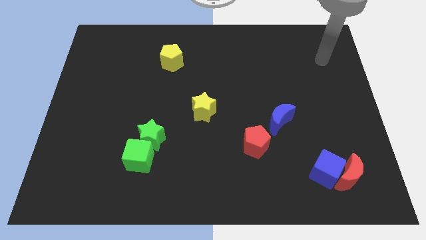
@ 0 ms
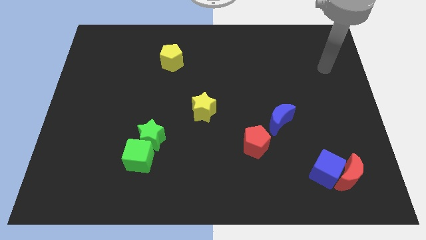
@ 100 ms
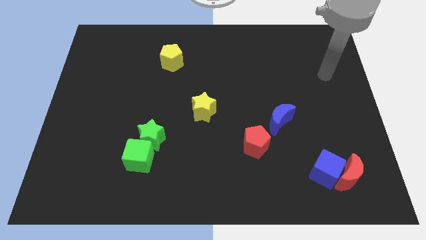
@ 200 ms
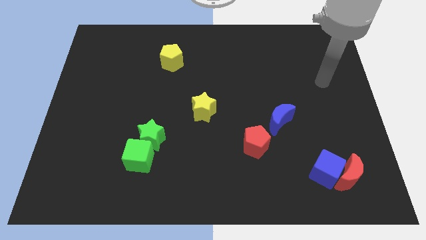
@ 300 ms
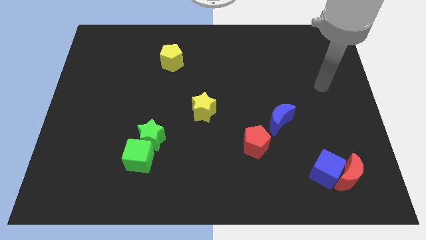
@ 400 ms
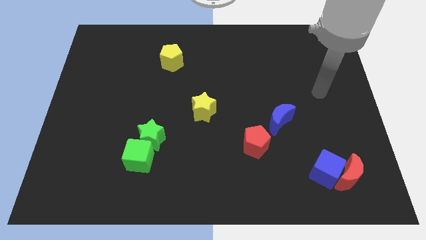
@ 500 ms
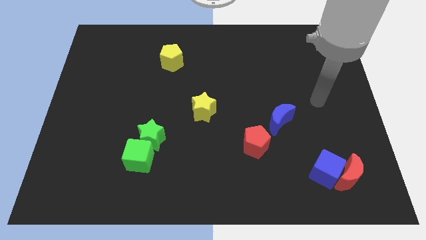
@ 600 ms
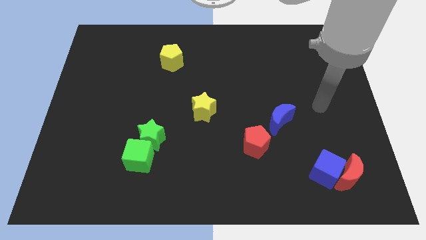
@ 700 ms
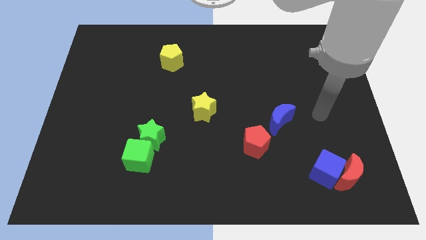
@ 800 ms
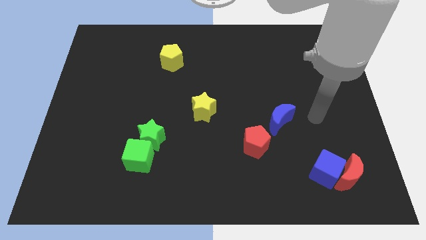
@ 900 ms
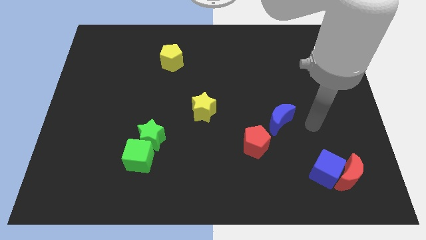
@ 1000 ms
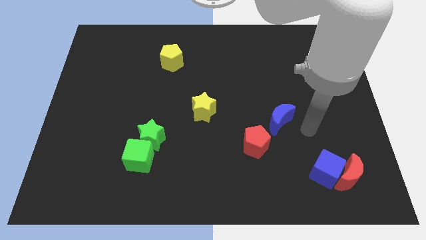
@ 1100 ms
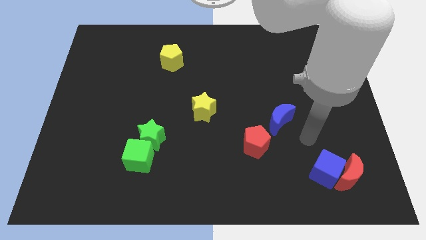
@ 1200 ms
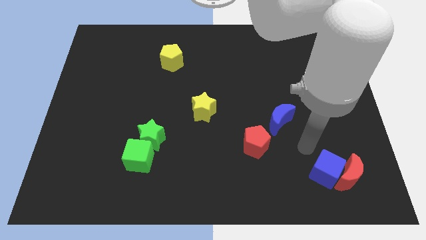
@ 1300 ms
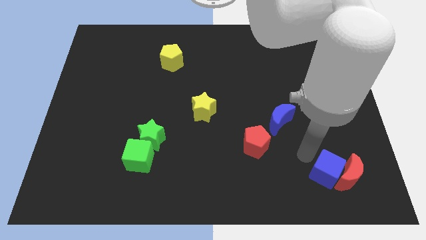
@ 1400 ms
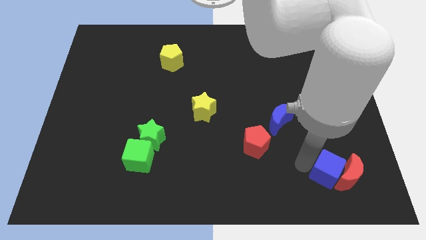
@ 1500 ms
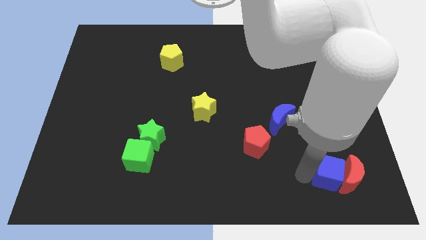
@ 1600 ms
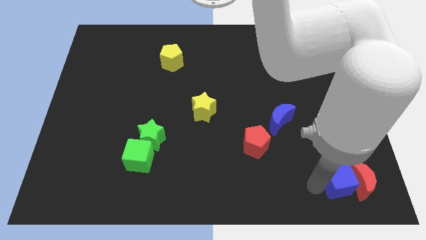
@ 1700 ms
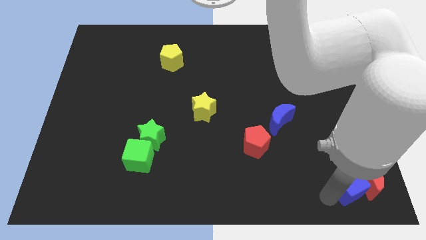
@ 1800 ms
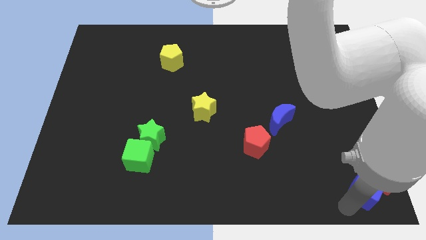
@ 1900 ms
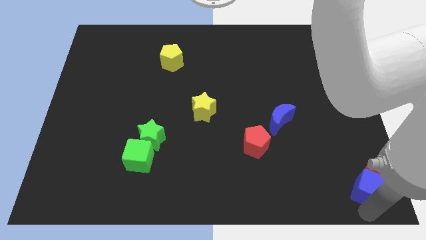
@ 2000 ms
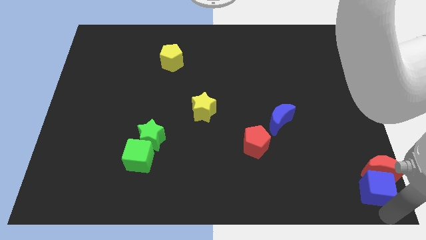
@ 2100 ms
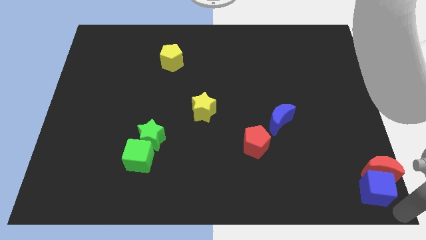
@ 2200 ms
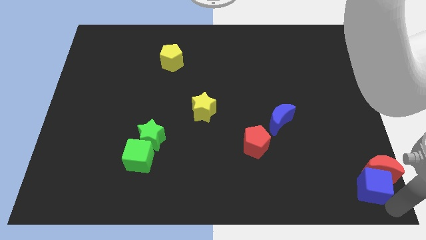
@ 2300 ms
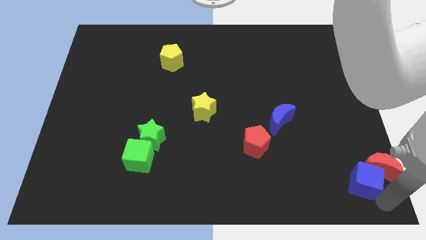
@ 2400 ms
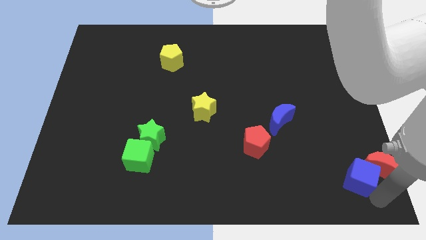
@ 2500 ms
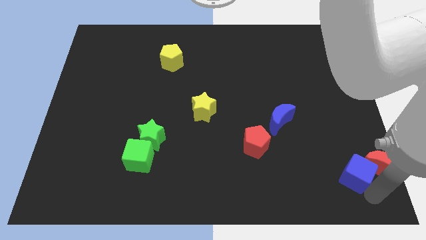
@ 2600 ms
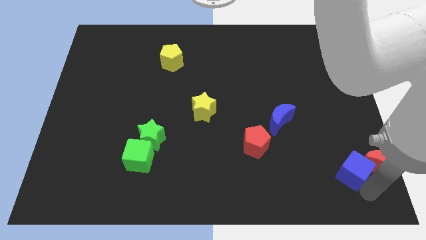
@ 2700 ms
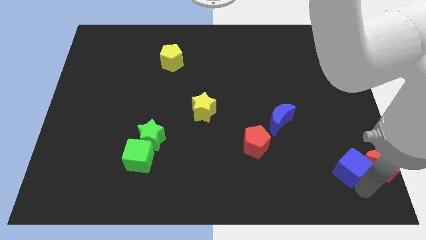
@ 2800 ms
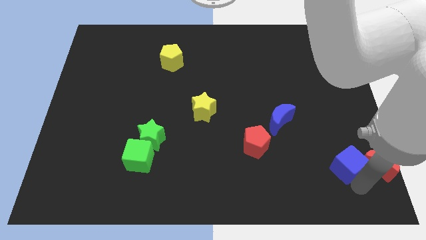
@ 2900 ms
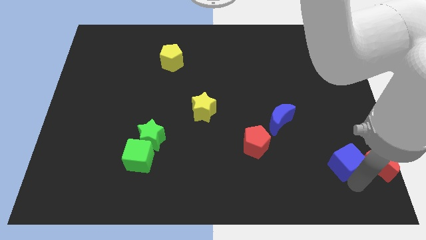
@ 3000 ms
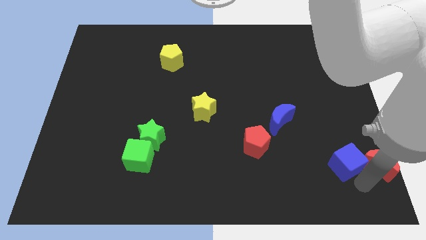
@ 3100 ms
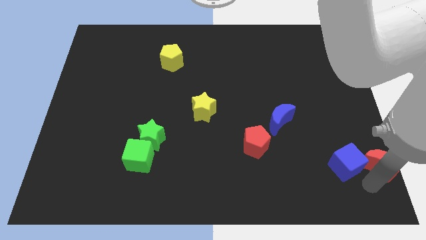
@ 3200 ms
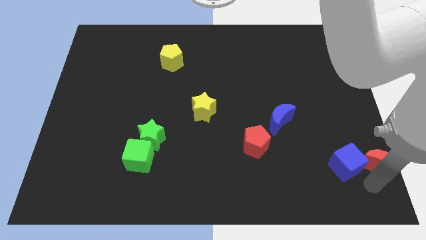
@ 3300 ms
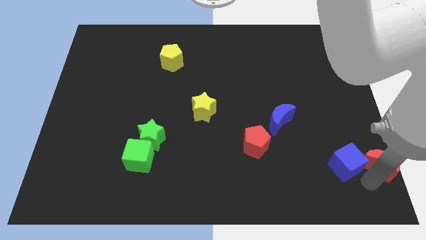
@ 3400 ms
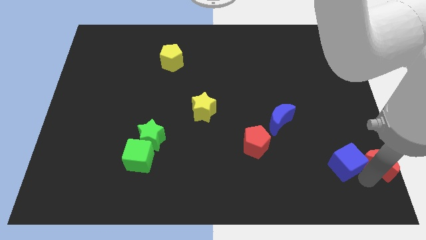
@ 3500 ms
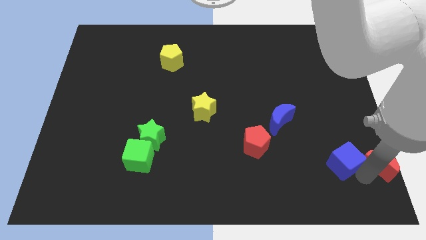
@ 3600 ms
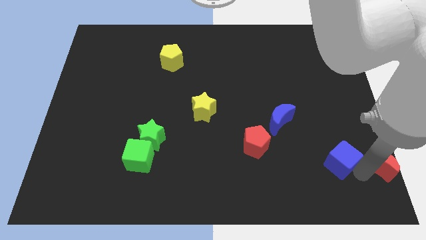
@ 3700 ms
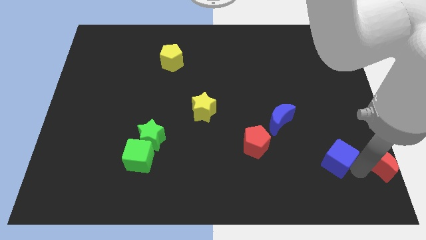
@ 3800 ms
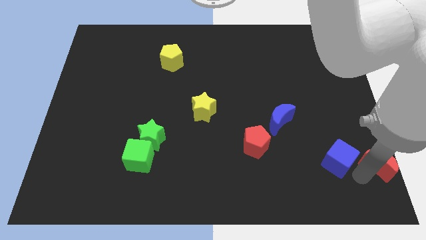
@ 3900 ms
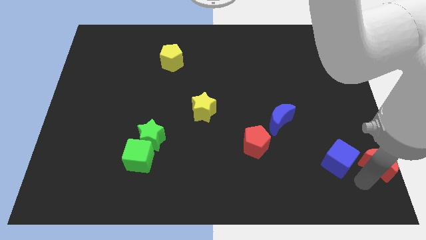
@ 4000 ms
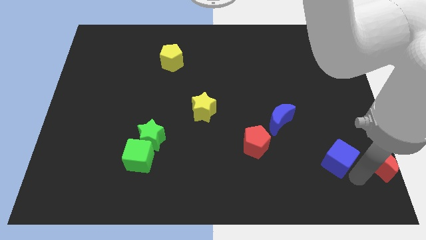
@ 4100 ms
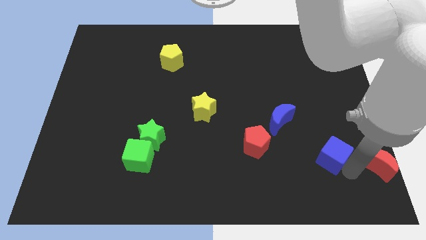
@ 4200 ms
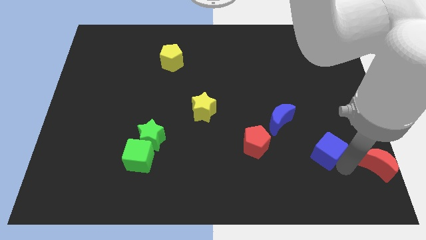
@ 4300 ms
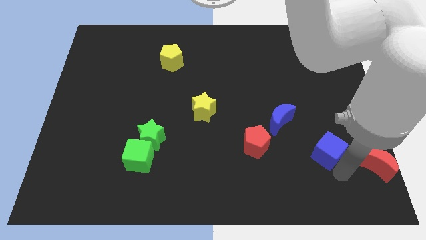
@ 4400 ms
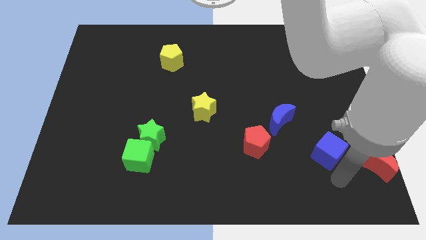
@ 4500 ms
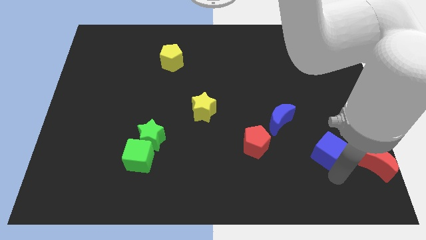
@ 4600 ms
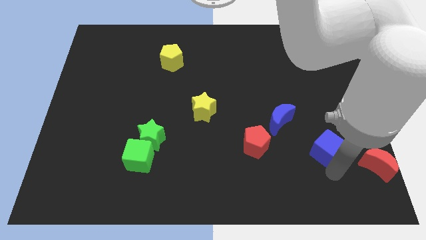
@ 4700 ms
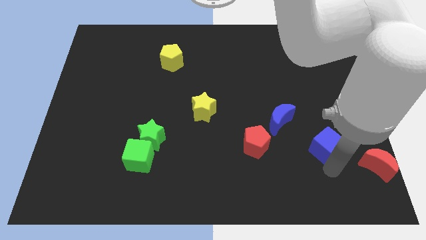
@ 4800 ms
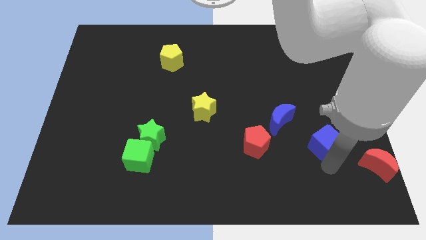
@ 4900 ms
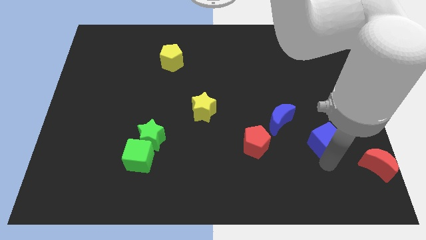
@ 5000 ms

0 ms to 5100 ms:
slide the blue cube up somewhat

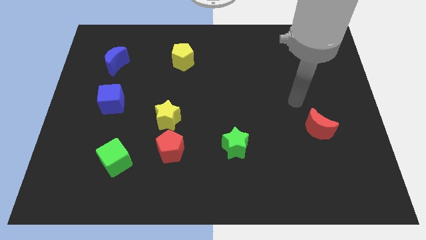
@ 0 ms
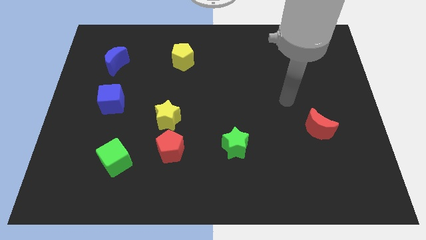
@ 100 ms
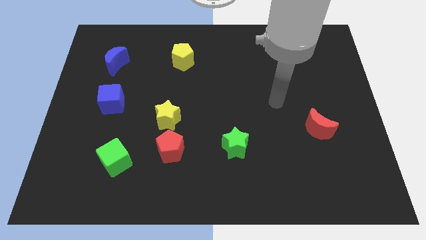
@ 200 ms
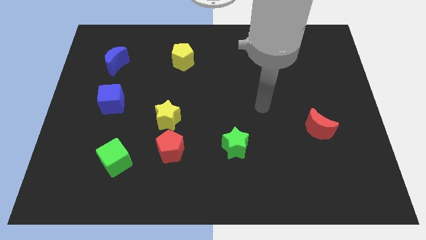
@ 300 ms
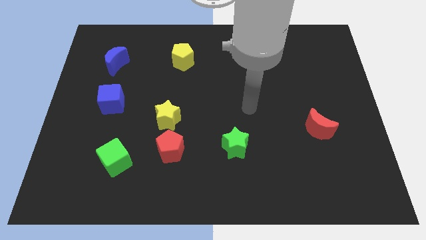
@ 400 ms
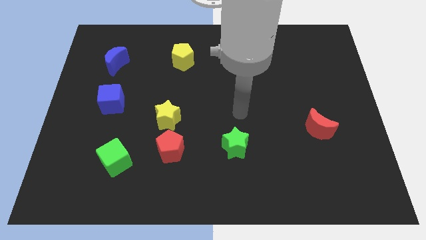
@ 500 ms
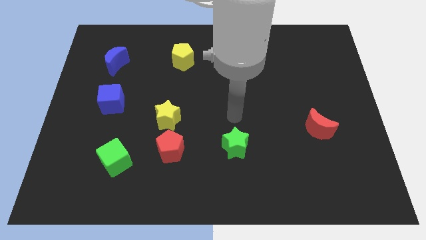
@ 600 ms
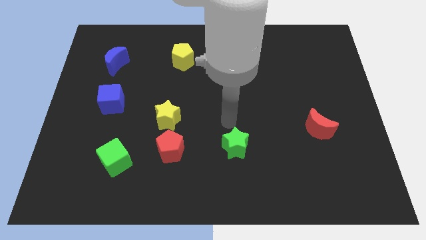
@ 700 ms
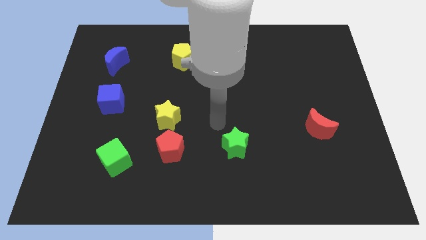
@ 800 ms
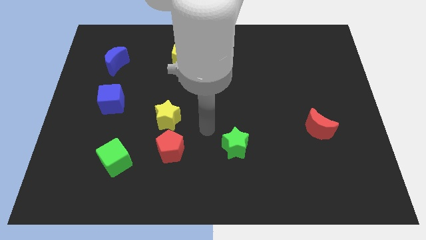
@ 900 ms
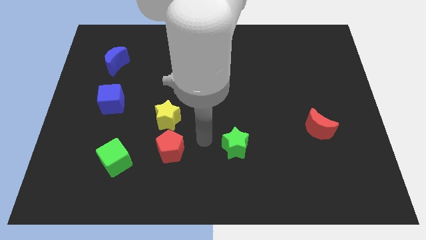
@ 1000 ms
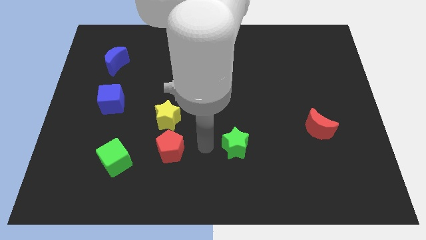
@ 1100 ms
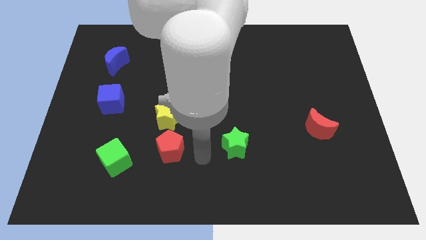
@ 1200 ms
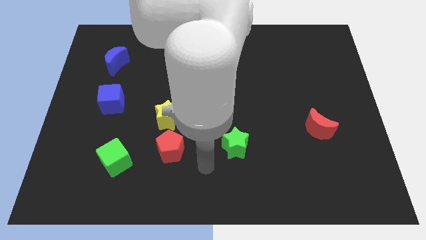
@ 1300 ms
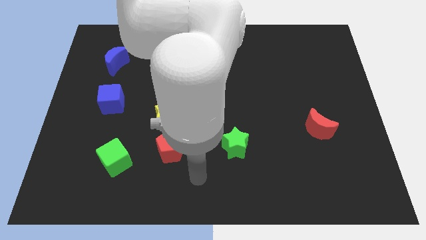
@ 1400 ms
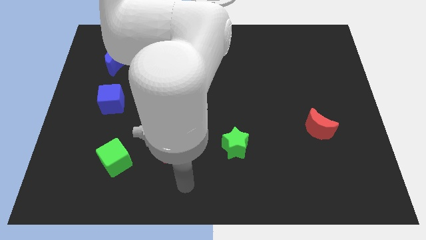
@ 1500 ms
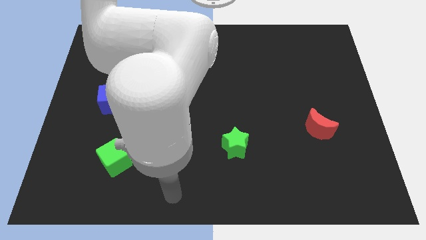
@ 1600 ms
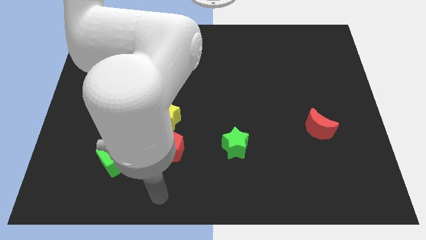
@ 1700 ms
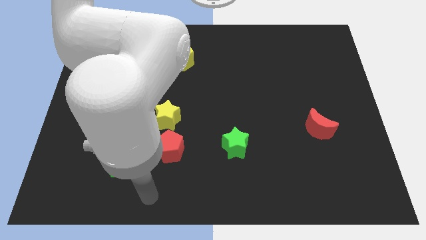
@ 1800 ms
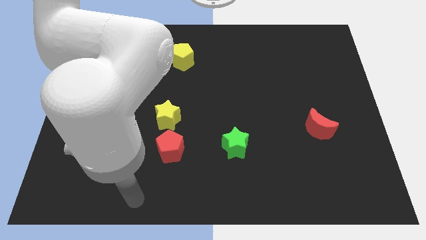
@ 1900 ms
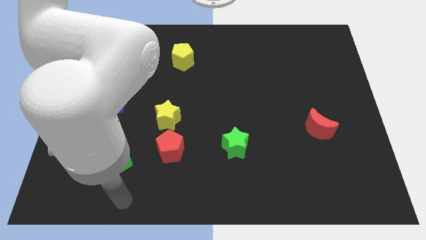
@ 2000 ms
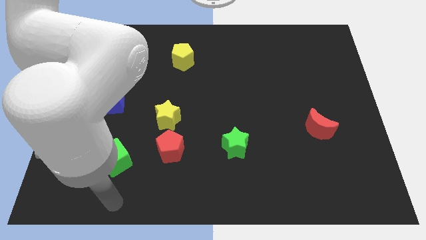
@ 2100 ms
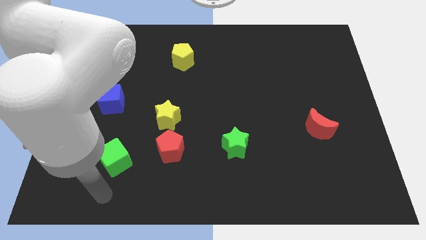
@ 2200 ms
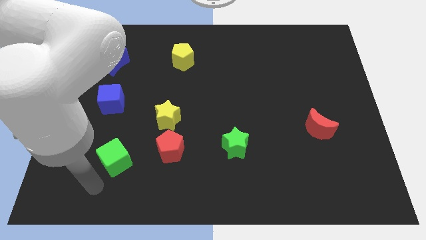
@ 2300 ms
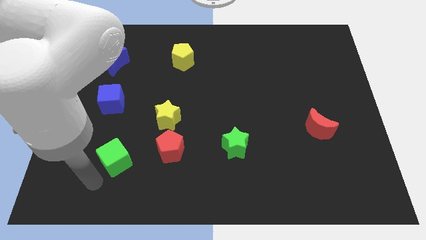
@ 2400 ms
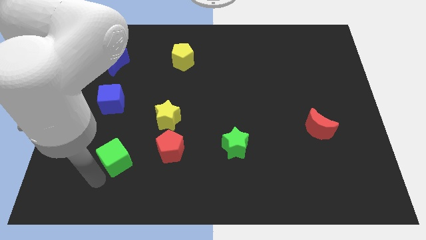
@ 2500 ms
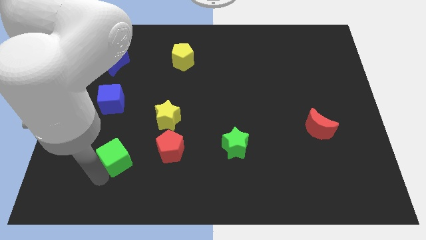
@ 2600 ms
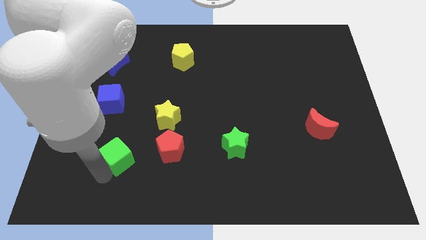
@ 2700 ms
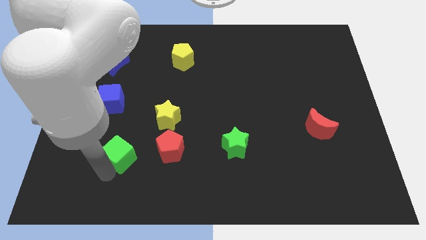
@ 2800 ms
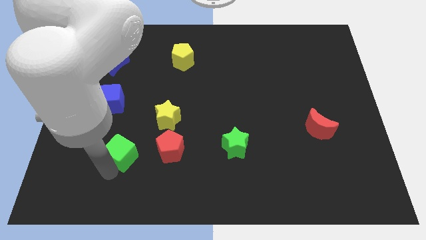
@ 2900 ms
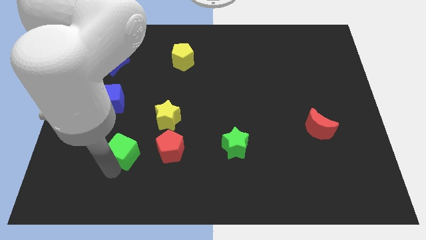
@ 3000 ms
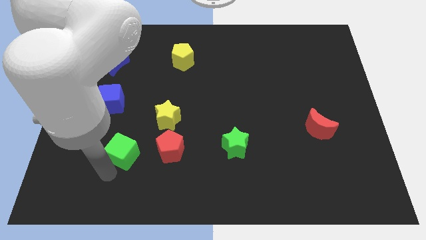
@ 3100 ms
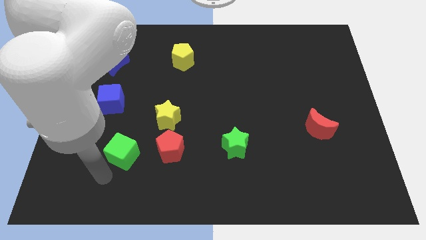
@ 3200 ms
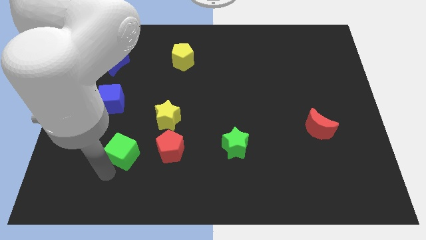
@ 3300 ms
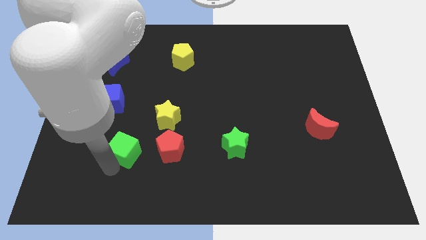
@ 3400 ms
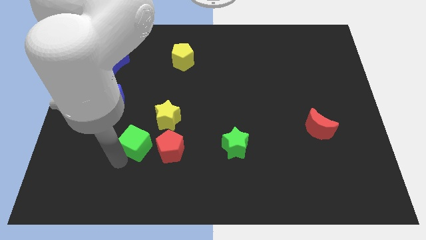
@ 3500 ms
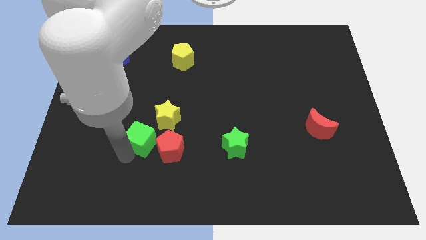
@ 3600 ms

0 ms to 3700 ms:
slide the green cube upwards and then to the right a little
